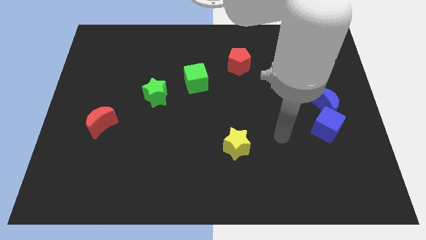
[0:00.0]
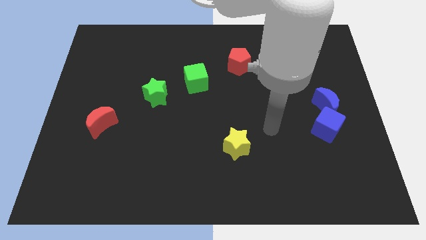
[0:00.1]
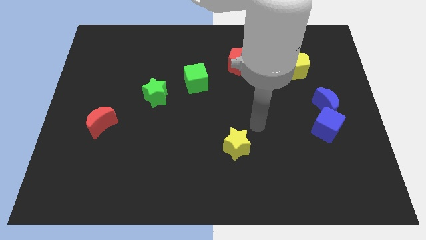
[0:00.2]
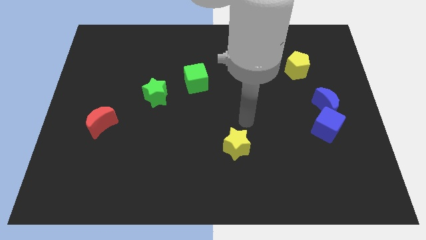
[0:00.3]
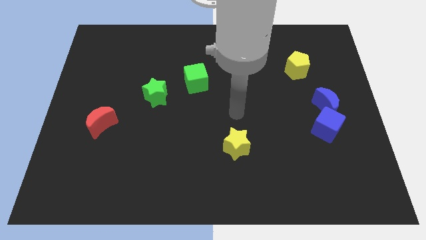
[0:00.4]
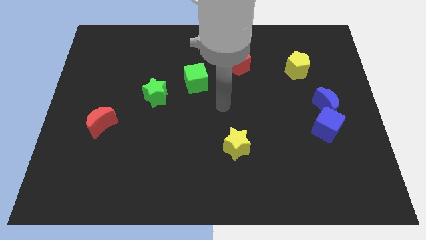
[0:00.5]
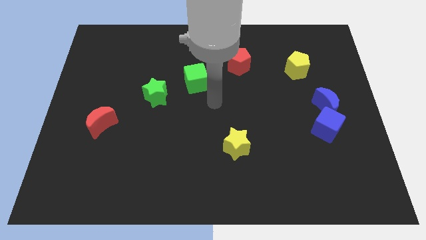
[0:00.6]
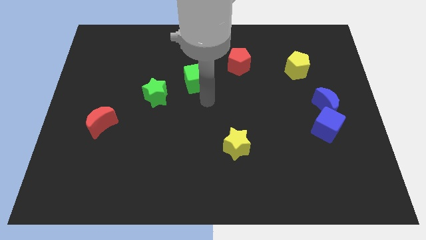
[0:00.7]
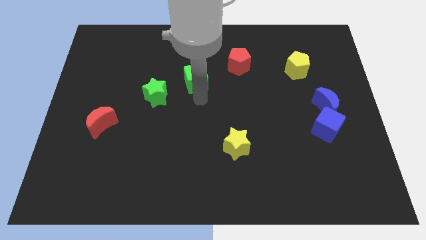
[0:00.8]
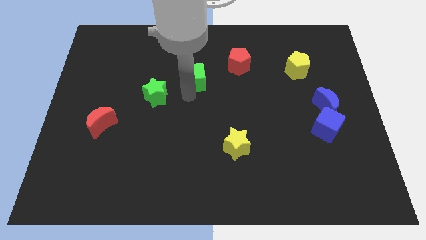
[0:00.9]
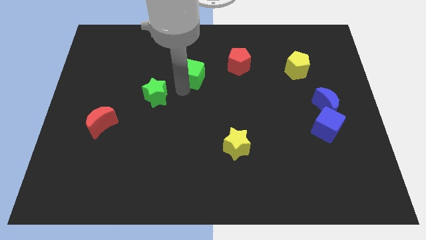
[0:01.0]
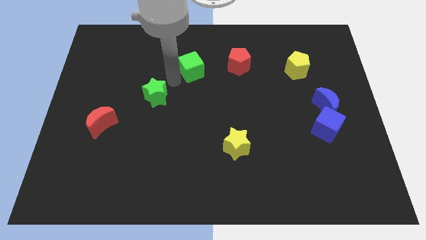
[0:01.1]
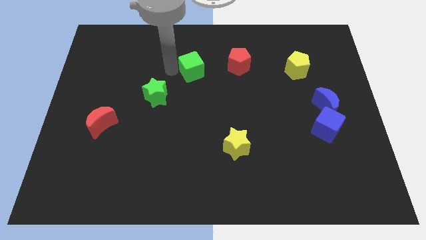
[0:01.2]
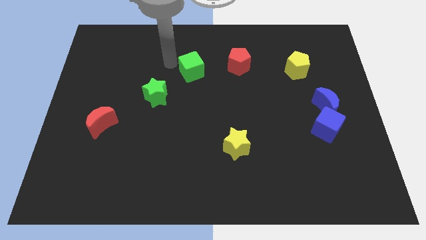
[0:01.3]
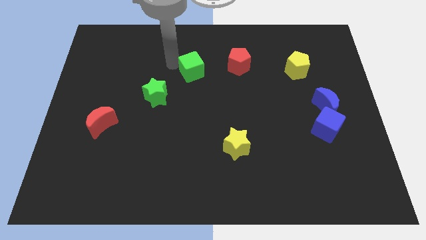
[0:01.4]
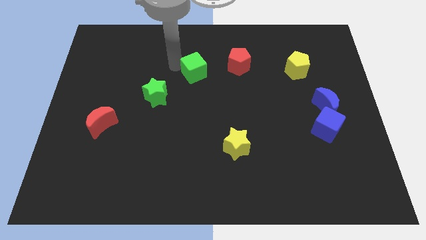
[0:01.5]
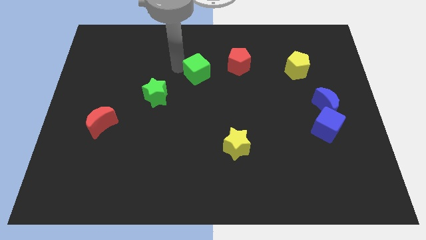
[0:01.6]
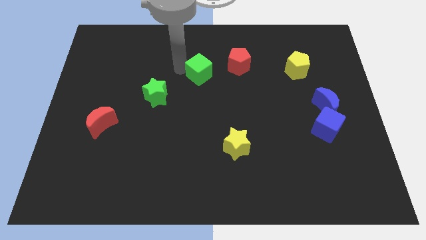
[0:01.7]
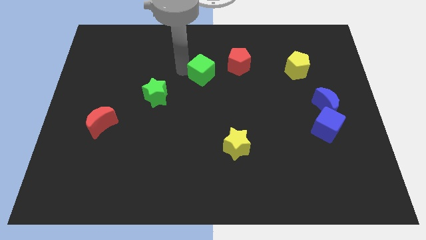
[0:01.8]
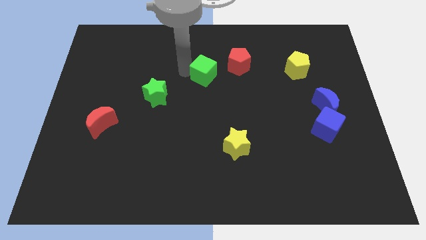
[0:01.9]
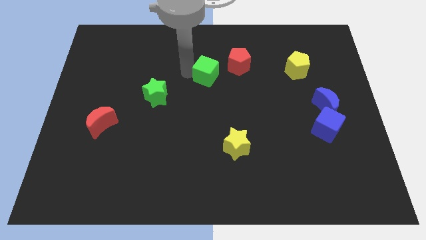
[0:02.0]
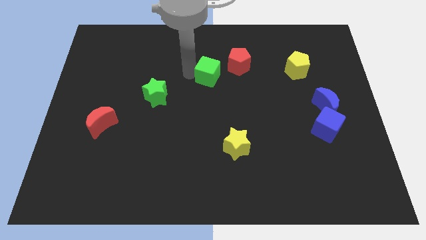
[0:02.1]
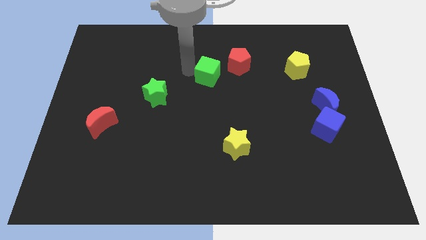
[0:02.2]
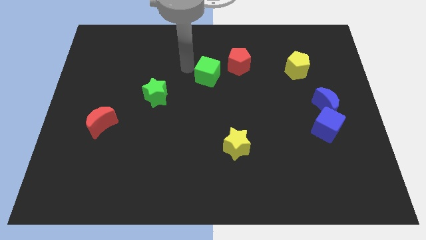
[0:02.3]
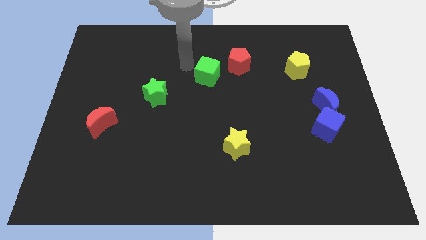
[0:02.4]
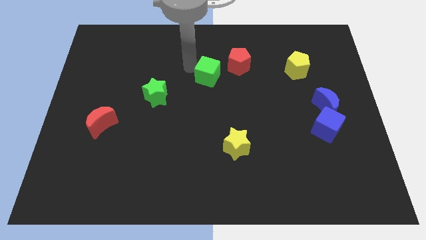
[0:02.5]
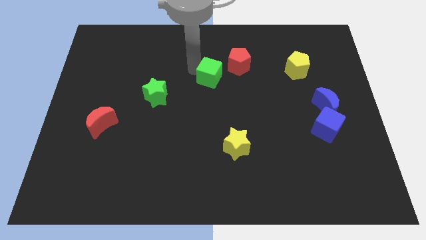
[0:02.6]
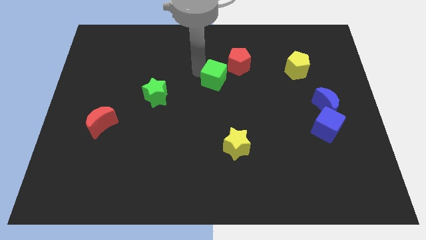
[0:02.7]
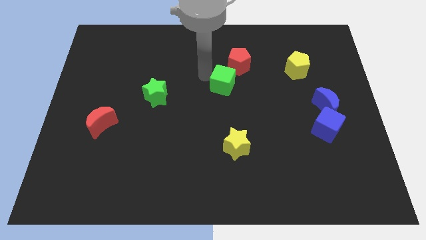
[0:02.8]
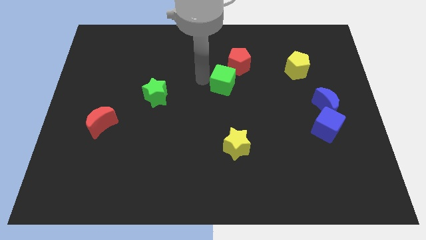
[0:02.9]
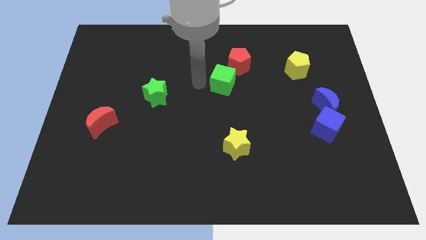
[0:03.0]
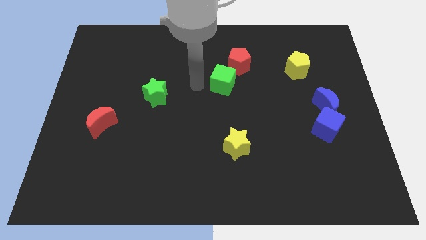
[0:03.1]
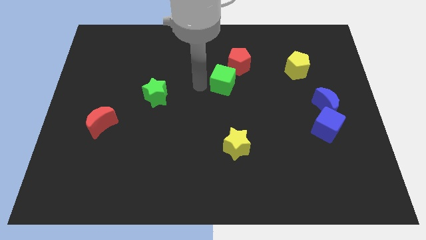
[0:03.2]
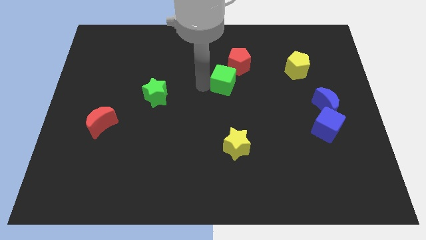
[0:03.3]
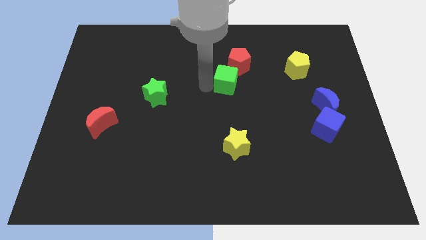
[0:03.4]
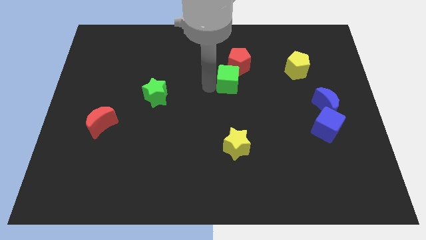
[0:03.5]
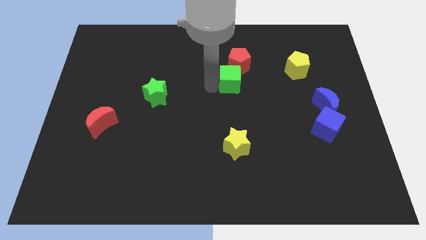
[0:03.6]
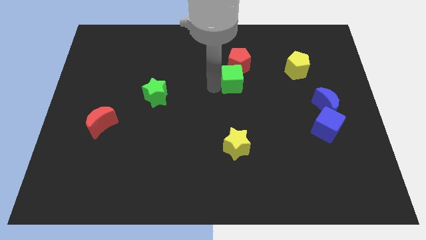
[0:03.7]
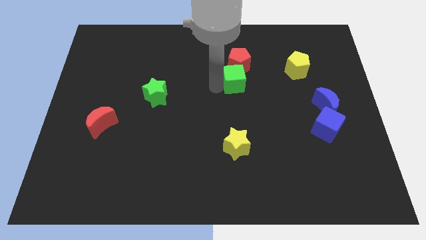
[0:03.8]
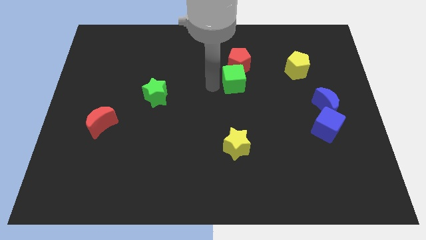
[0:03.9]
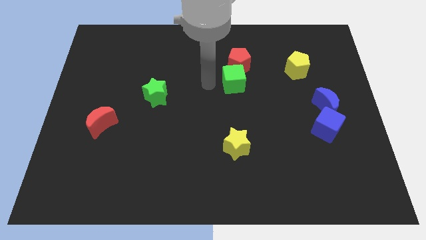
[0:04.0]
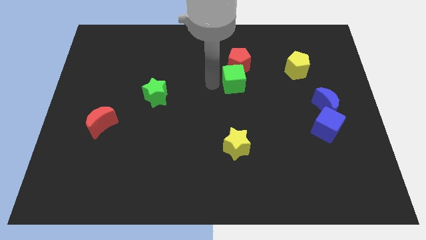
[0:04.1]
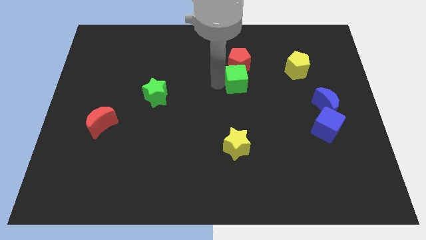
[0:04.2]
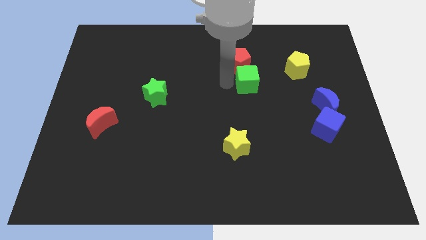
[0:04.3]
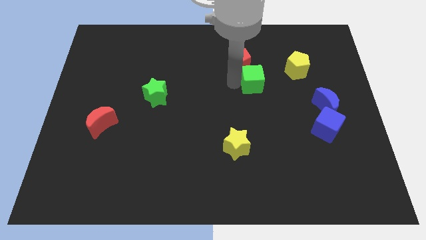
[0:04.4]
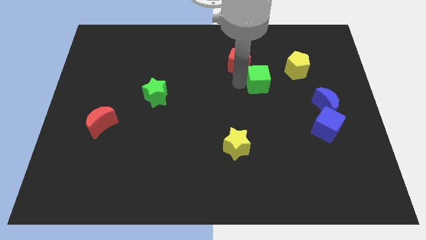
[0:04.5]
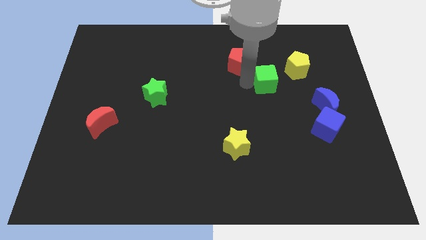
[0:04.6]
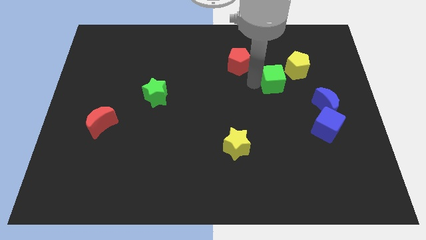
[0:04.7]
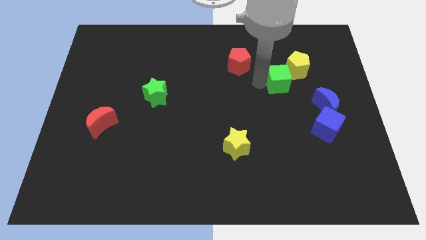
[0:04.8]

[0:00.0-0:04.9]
push the green cube to the right

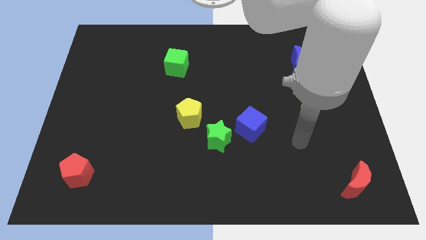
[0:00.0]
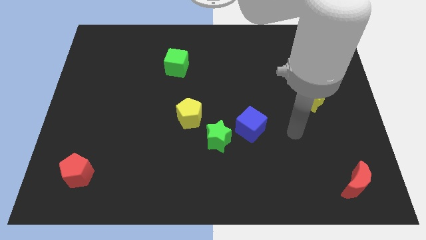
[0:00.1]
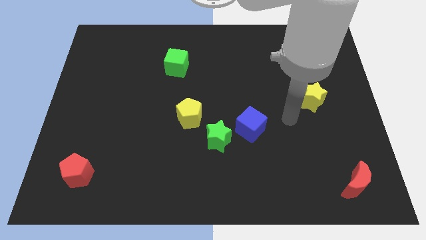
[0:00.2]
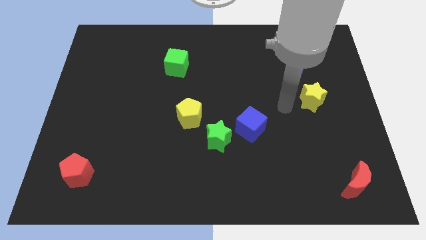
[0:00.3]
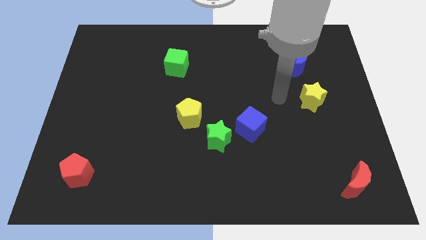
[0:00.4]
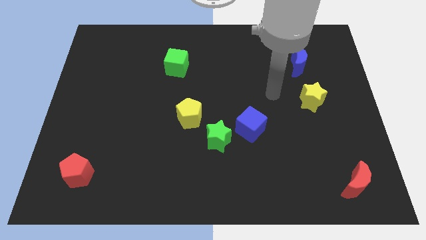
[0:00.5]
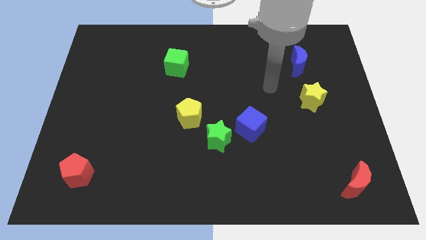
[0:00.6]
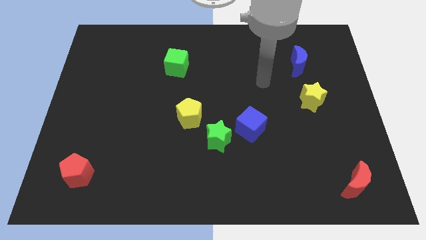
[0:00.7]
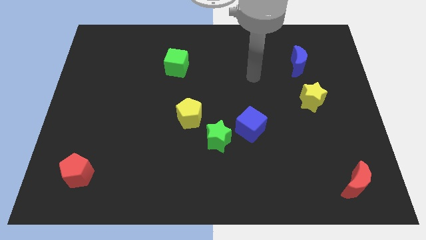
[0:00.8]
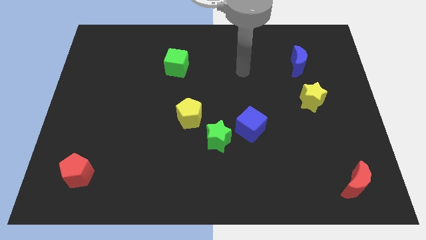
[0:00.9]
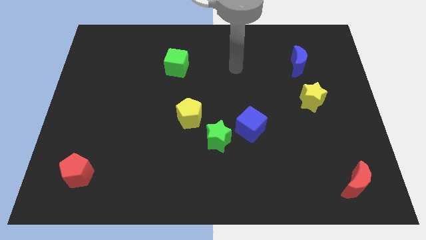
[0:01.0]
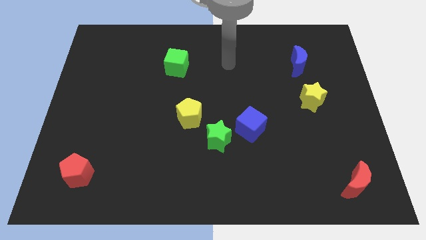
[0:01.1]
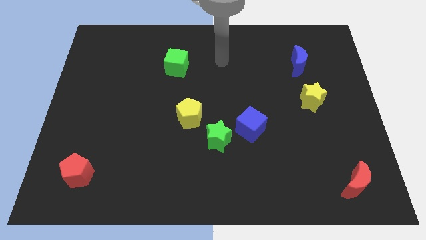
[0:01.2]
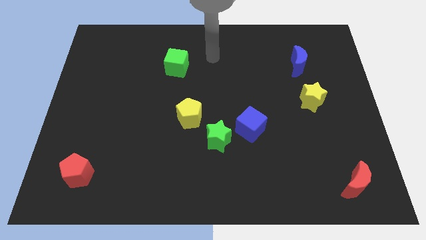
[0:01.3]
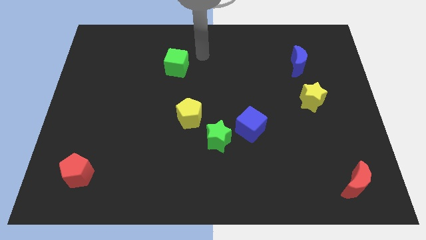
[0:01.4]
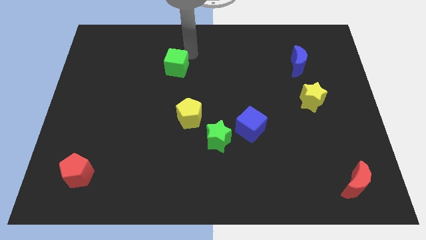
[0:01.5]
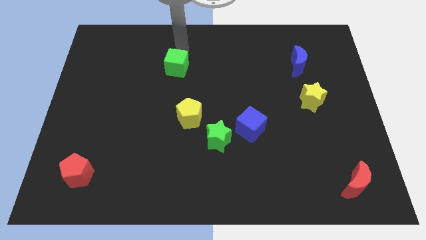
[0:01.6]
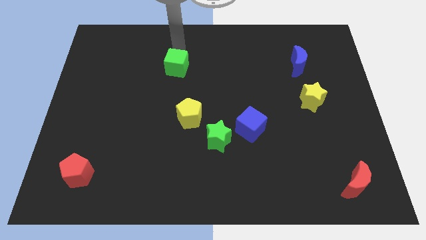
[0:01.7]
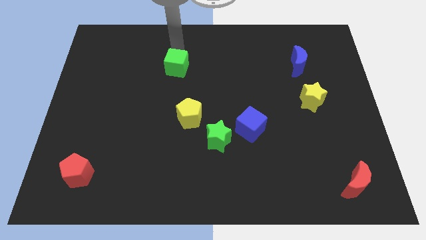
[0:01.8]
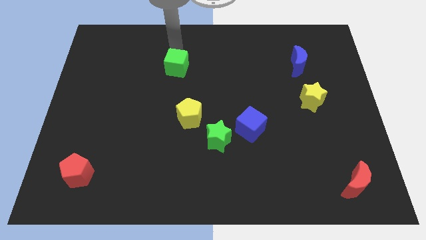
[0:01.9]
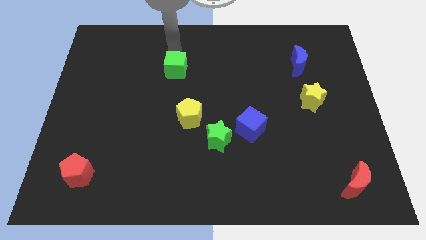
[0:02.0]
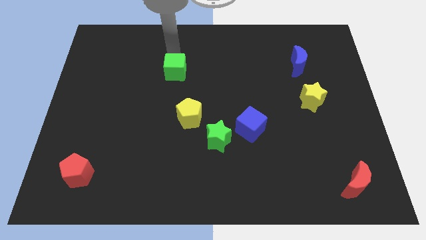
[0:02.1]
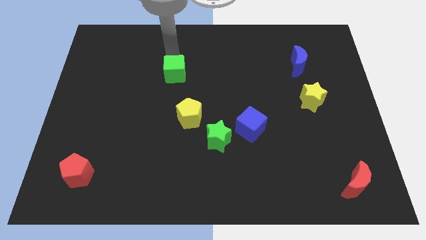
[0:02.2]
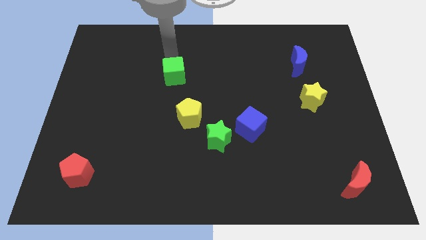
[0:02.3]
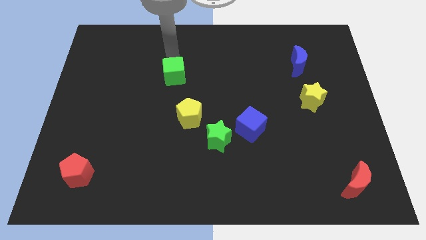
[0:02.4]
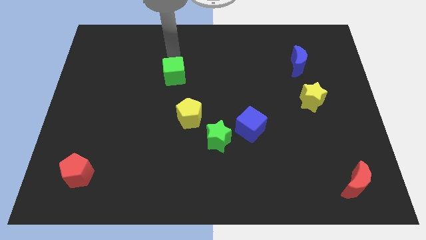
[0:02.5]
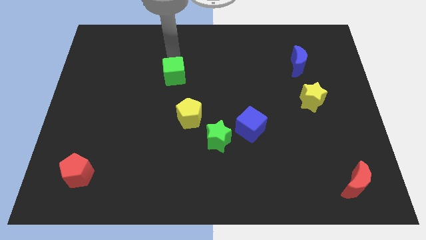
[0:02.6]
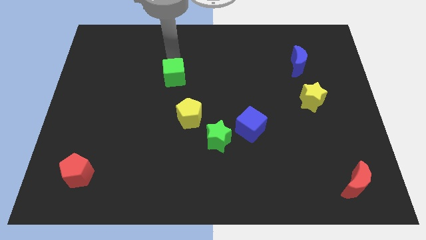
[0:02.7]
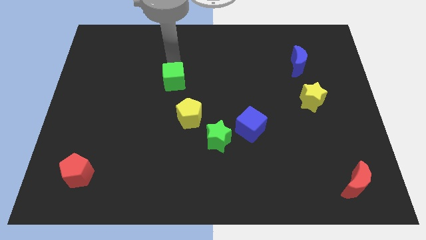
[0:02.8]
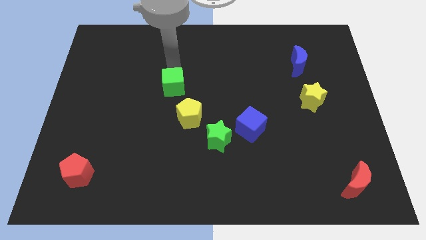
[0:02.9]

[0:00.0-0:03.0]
push the green cube down a bit
